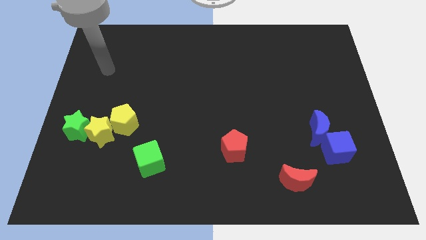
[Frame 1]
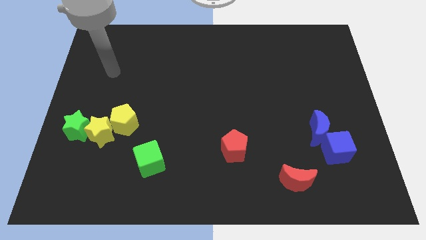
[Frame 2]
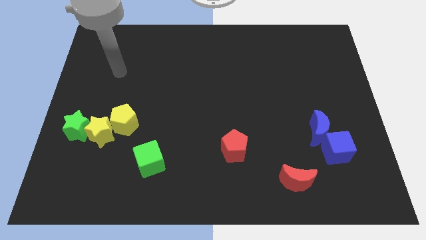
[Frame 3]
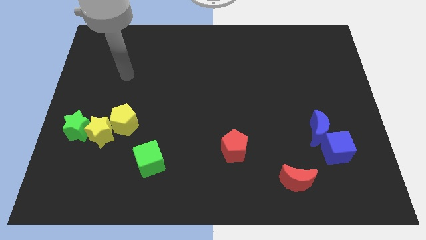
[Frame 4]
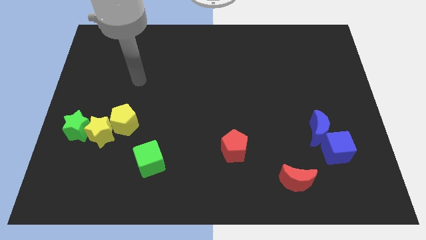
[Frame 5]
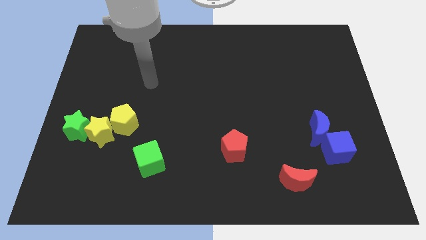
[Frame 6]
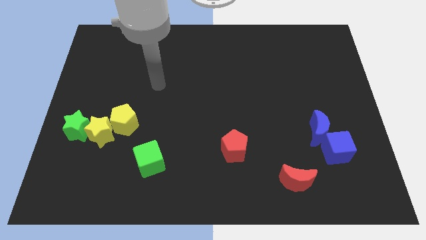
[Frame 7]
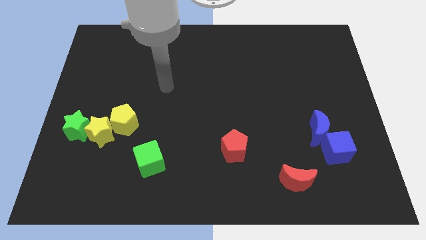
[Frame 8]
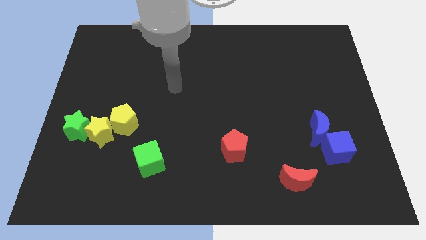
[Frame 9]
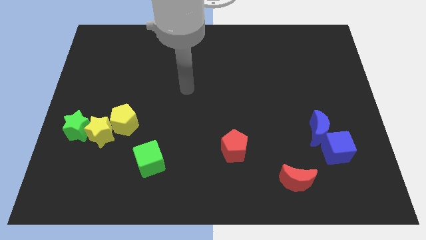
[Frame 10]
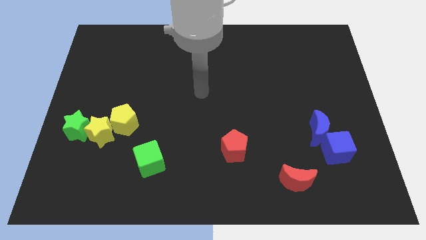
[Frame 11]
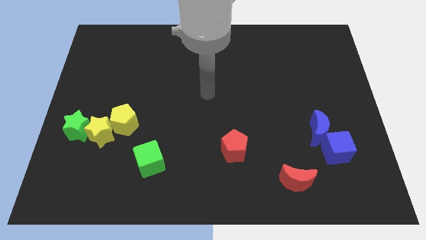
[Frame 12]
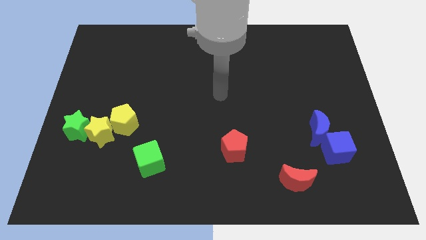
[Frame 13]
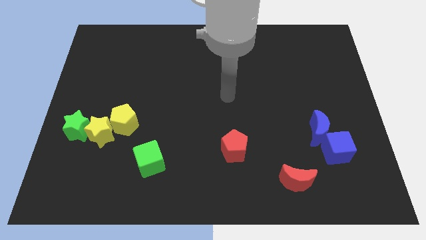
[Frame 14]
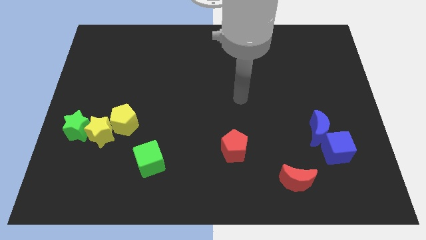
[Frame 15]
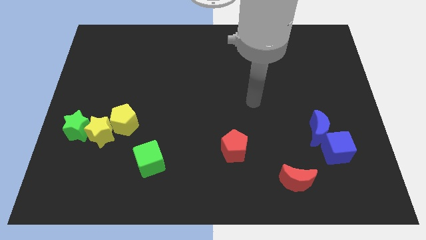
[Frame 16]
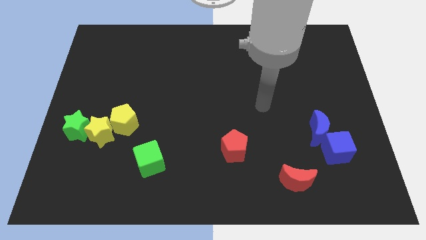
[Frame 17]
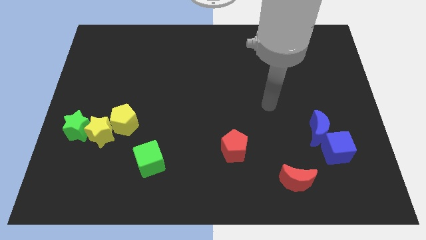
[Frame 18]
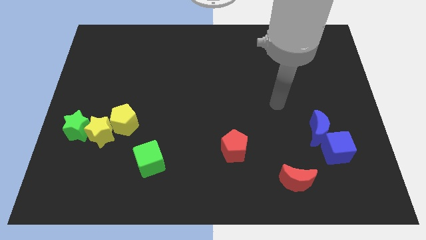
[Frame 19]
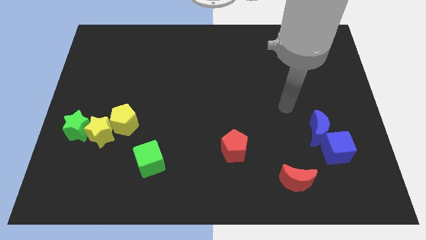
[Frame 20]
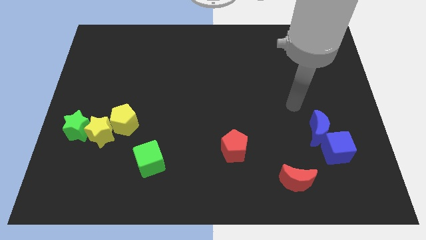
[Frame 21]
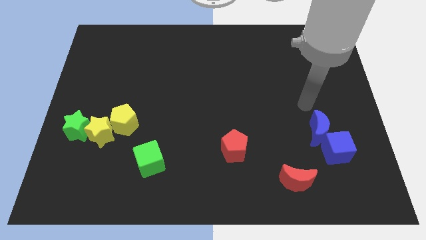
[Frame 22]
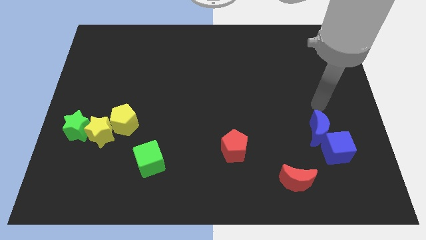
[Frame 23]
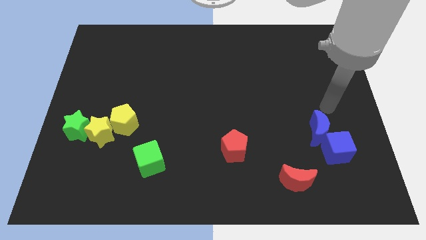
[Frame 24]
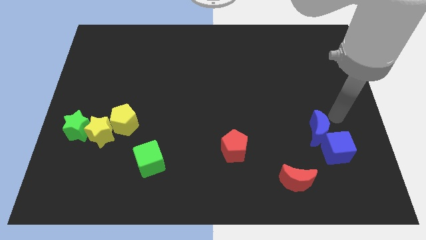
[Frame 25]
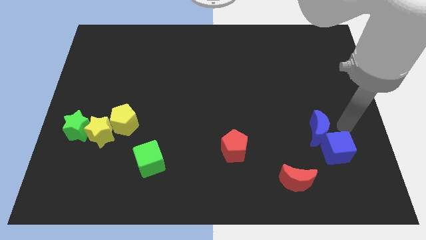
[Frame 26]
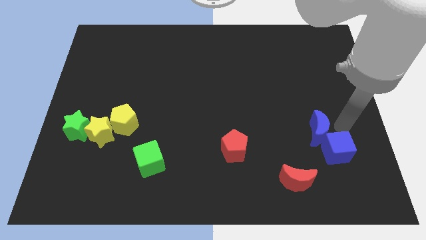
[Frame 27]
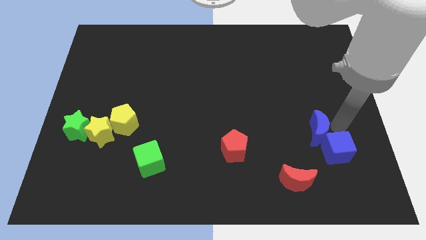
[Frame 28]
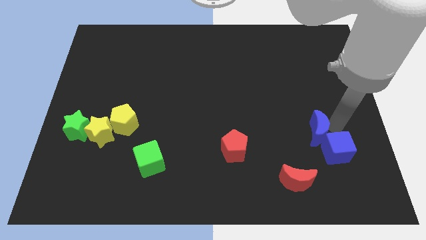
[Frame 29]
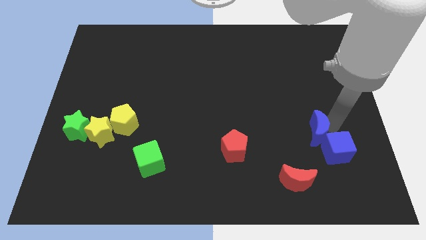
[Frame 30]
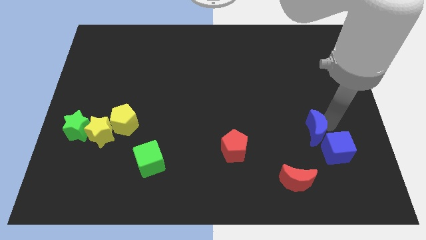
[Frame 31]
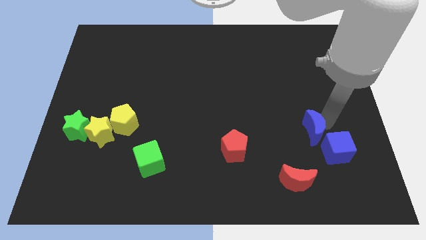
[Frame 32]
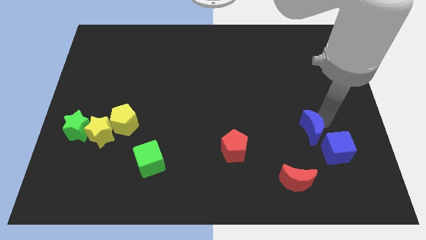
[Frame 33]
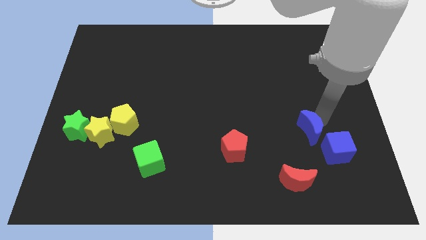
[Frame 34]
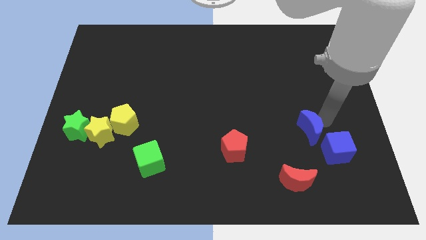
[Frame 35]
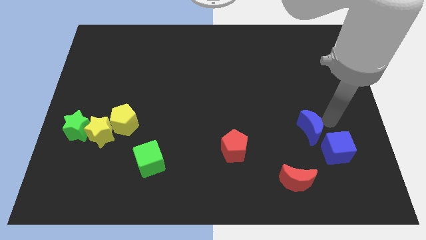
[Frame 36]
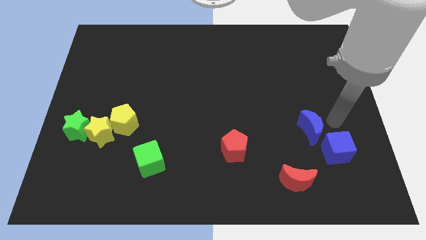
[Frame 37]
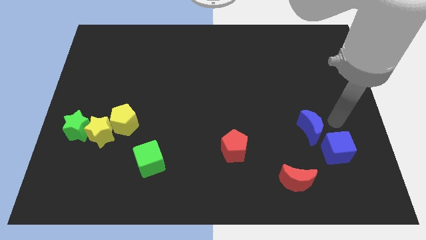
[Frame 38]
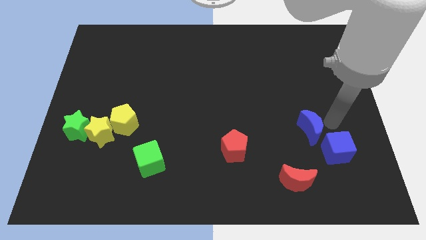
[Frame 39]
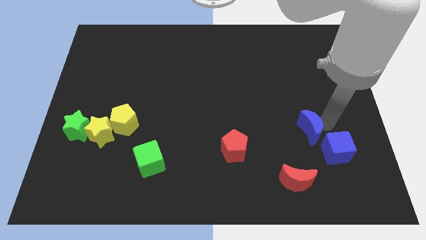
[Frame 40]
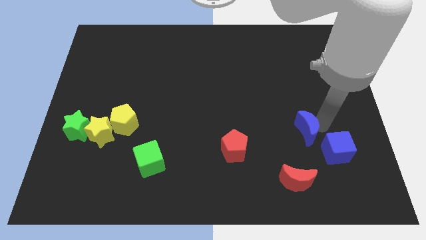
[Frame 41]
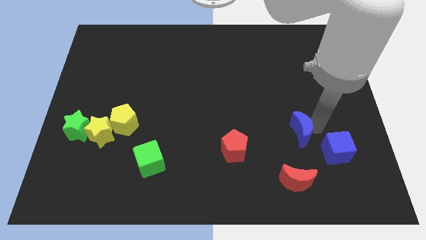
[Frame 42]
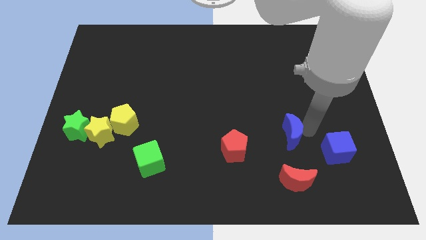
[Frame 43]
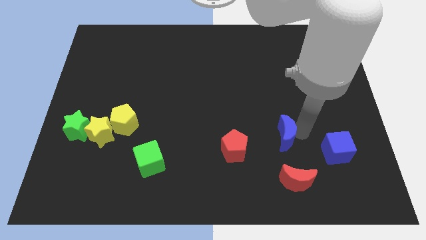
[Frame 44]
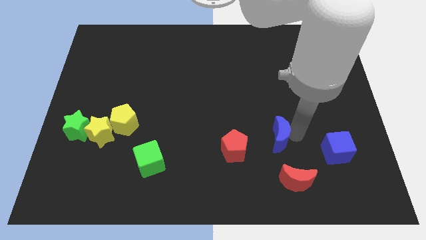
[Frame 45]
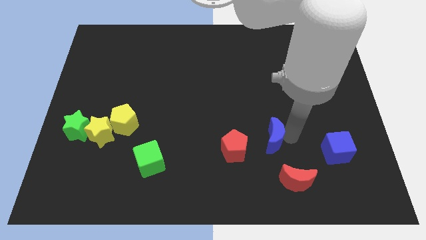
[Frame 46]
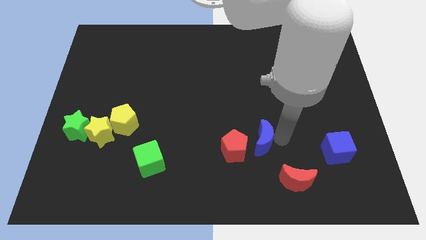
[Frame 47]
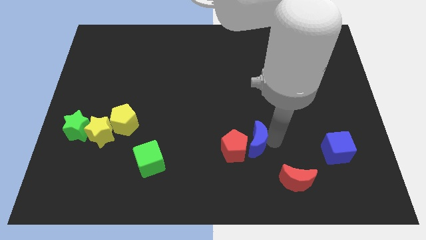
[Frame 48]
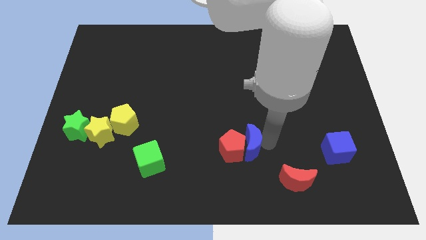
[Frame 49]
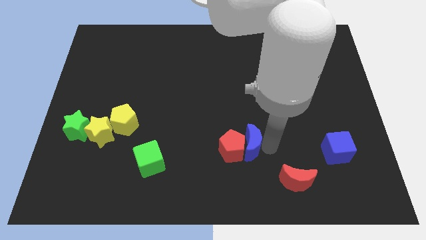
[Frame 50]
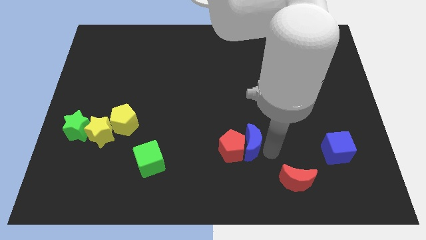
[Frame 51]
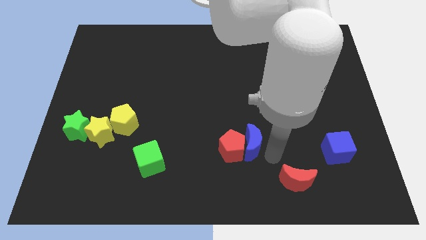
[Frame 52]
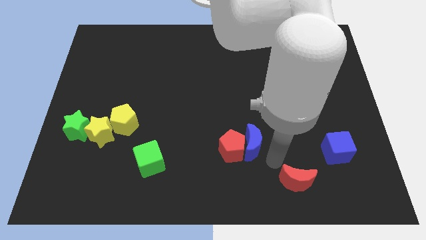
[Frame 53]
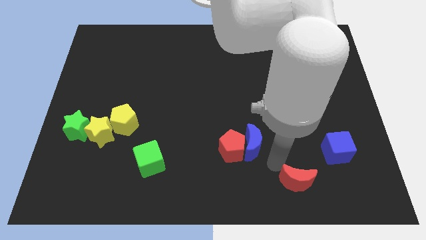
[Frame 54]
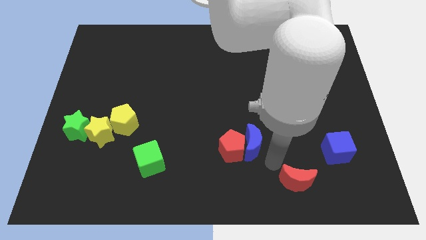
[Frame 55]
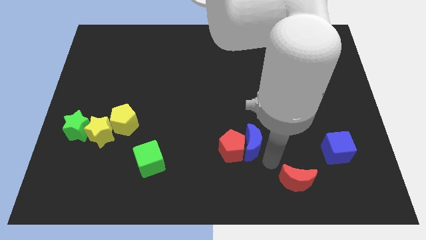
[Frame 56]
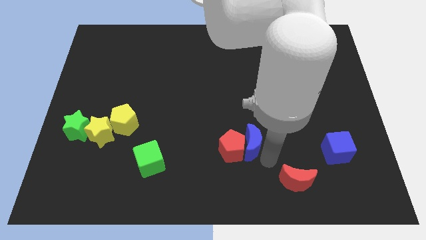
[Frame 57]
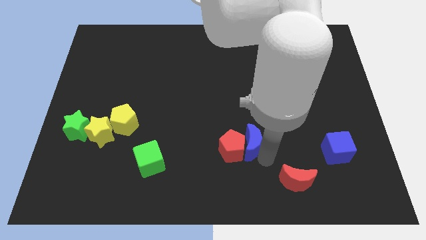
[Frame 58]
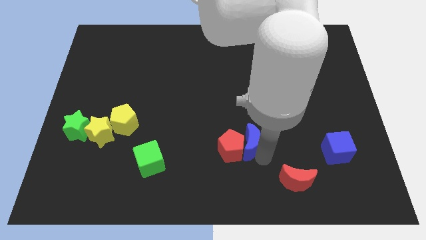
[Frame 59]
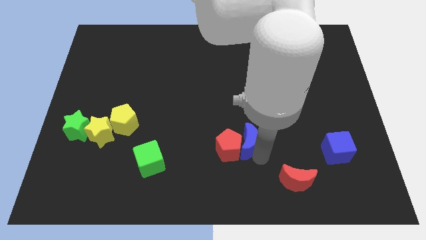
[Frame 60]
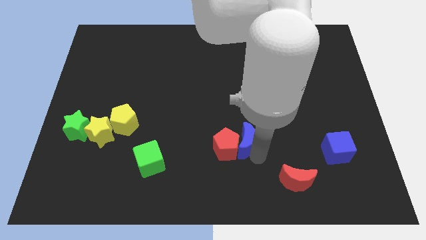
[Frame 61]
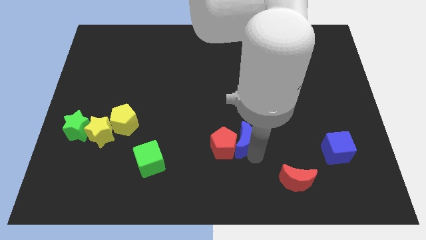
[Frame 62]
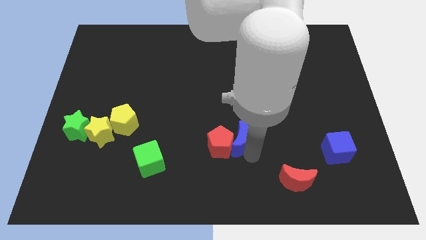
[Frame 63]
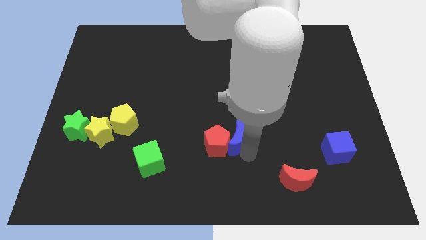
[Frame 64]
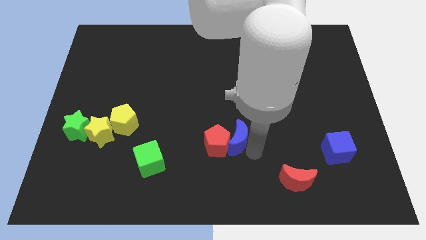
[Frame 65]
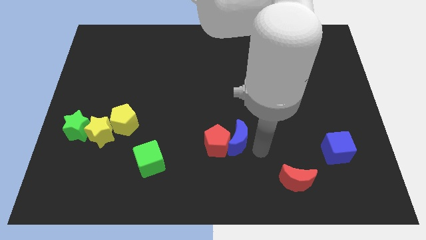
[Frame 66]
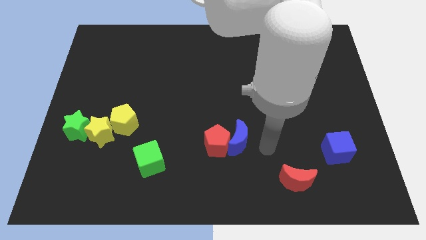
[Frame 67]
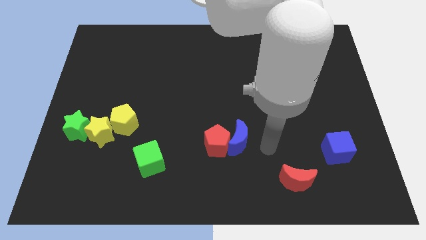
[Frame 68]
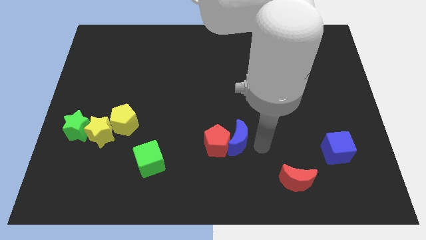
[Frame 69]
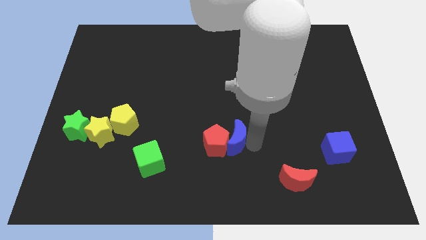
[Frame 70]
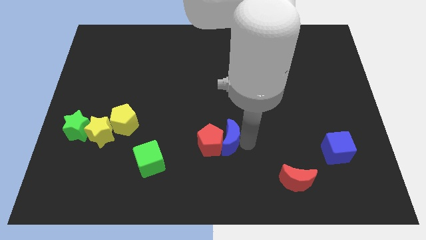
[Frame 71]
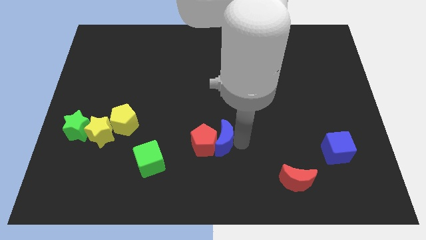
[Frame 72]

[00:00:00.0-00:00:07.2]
push the blue moon left

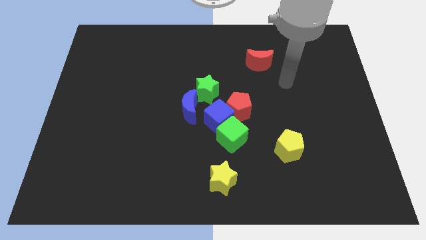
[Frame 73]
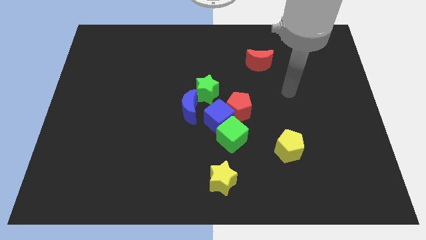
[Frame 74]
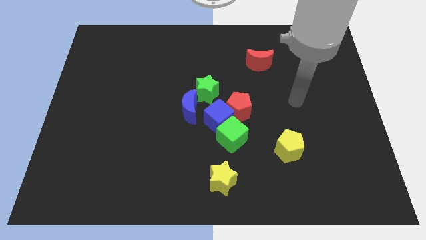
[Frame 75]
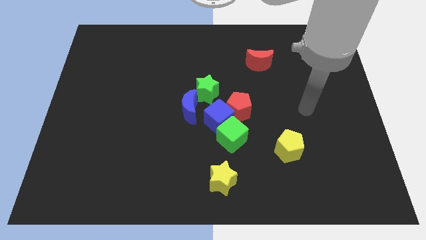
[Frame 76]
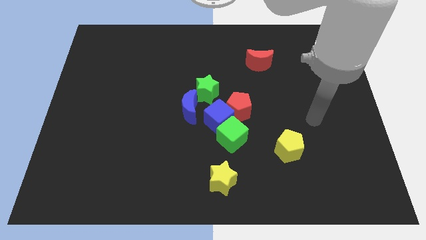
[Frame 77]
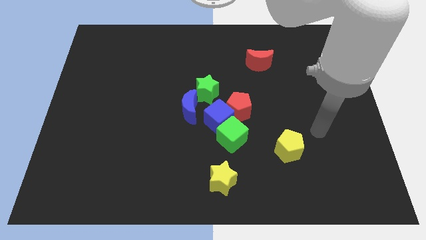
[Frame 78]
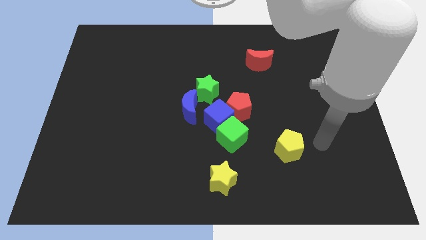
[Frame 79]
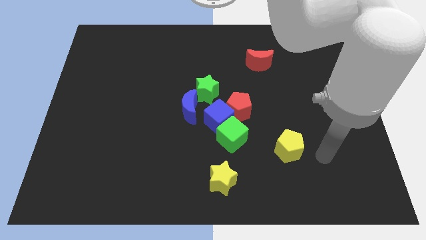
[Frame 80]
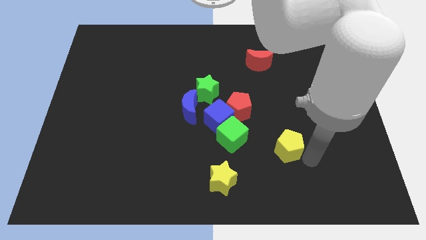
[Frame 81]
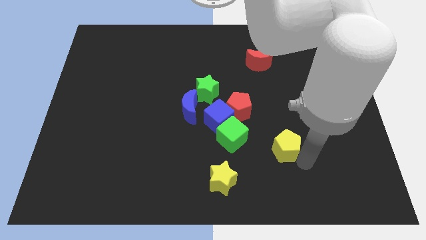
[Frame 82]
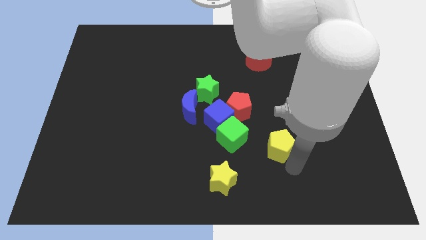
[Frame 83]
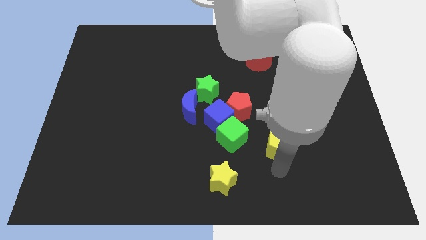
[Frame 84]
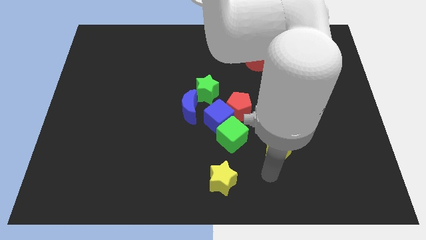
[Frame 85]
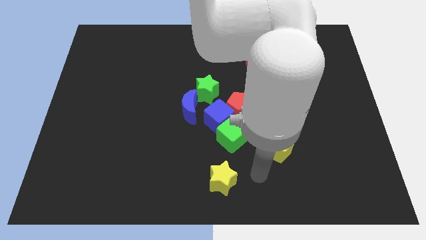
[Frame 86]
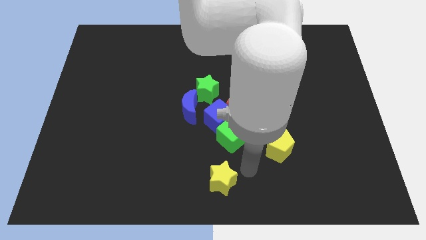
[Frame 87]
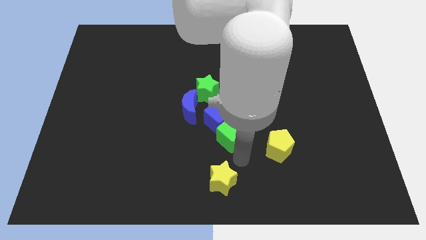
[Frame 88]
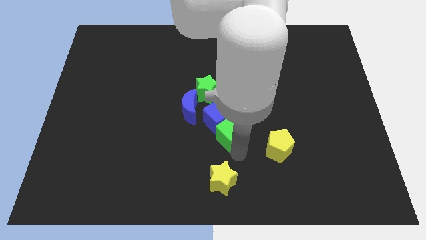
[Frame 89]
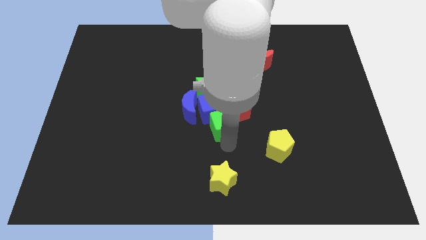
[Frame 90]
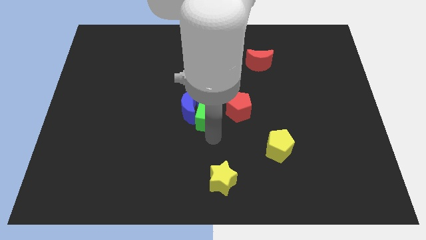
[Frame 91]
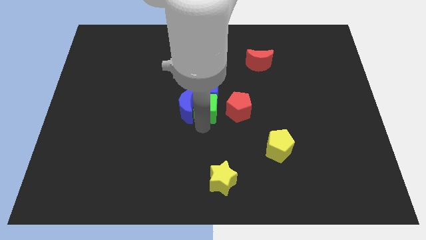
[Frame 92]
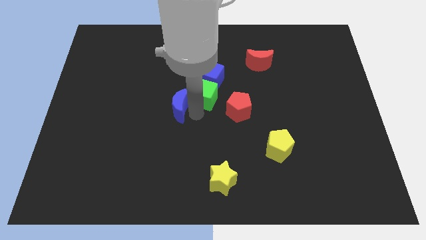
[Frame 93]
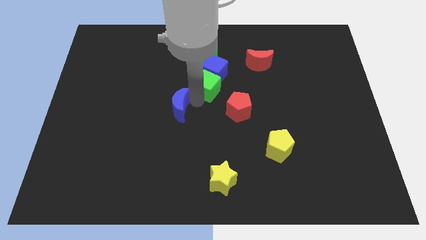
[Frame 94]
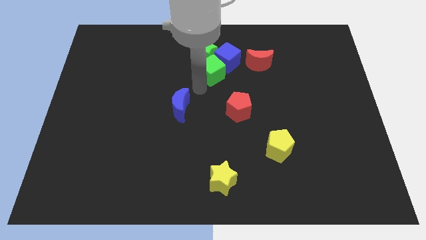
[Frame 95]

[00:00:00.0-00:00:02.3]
slide the blue cube upwards and then to the right a little bit
